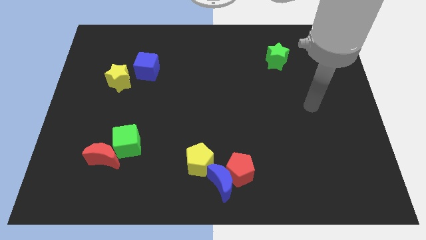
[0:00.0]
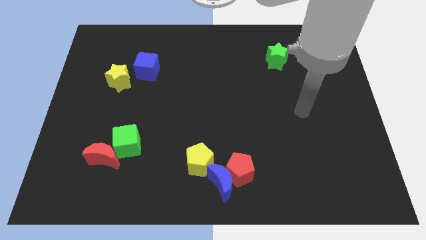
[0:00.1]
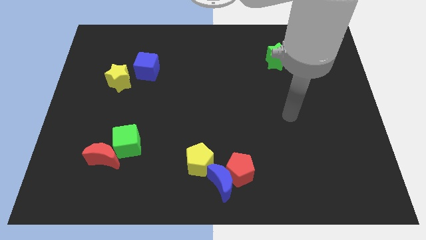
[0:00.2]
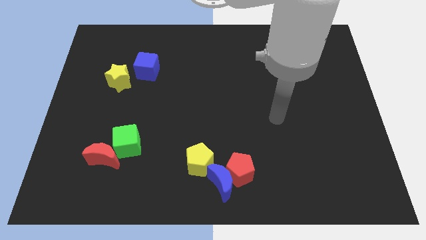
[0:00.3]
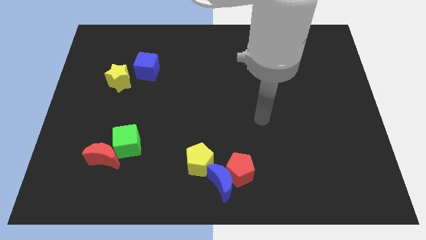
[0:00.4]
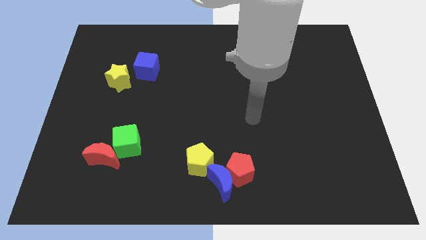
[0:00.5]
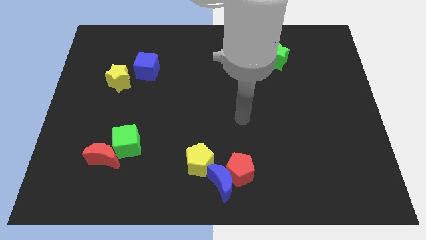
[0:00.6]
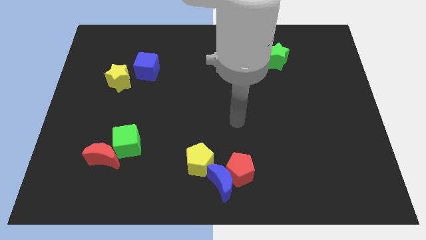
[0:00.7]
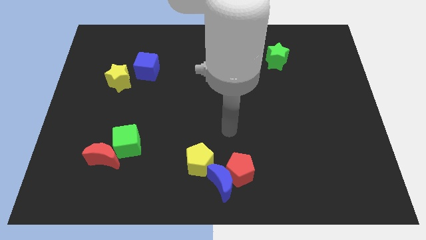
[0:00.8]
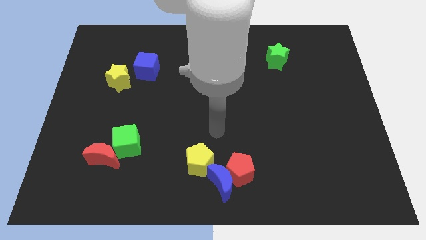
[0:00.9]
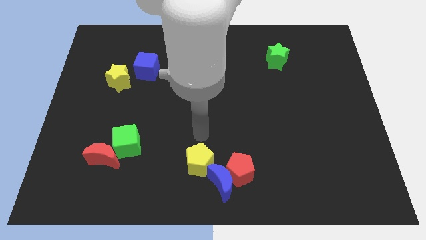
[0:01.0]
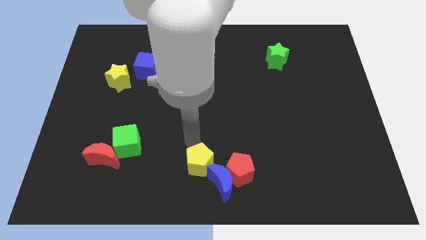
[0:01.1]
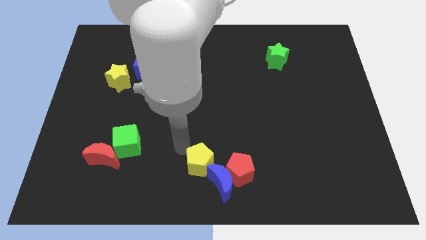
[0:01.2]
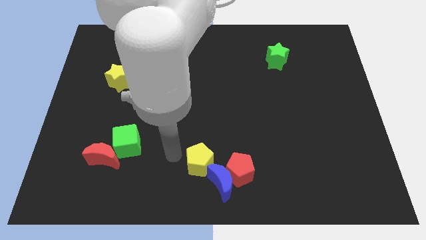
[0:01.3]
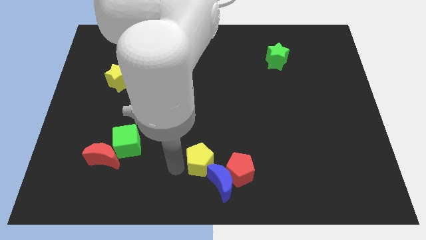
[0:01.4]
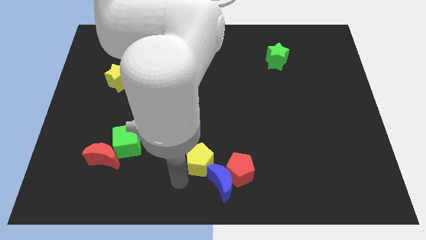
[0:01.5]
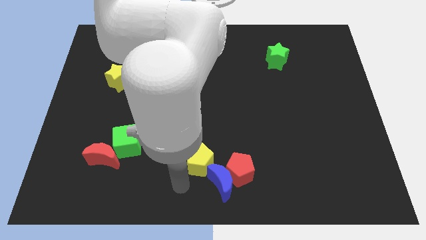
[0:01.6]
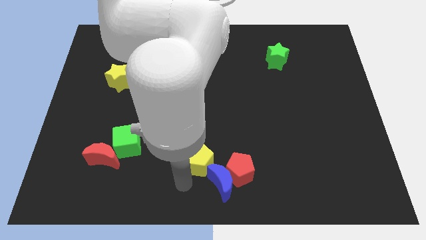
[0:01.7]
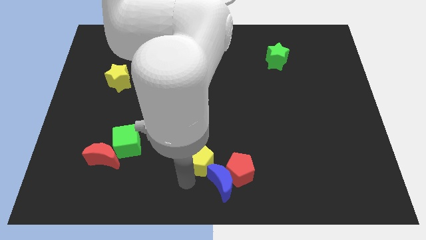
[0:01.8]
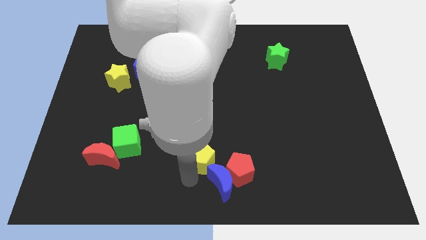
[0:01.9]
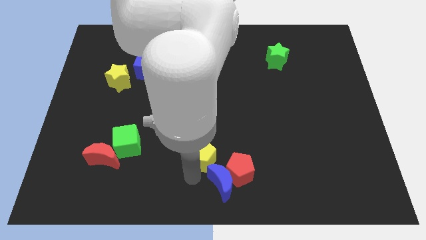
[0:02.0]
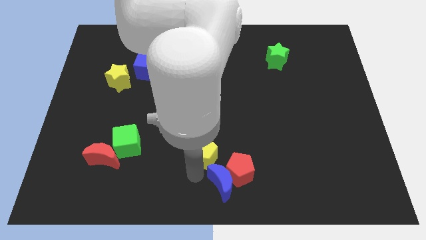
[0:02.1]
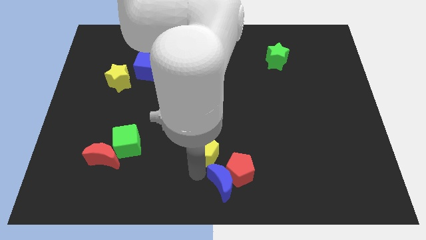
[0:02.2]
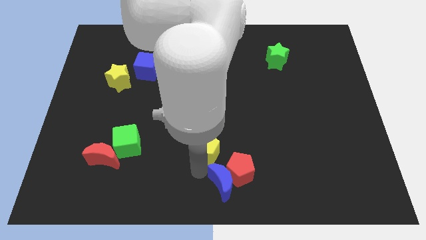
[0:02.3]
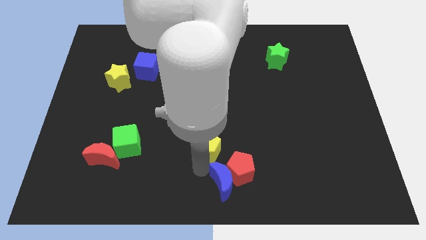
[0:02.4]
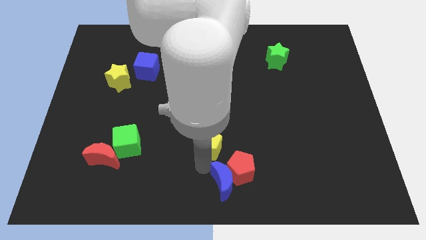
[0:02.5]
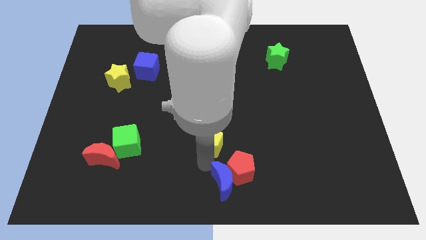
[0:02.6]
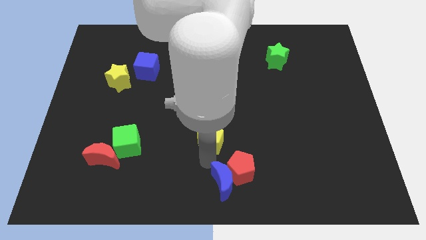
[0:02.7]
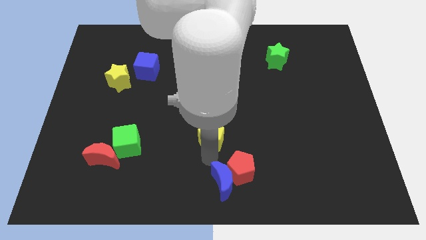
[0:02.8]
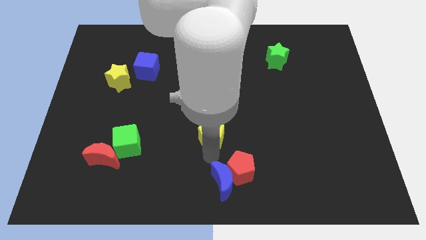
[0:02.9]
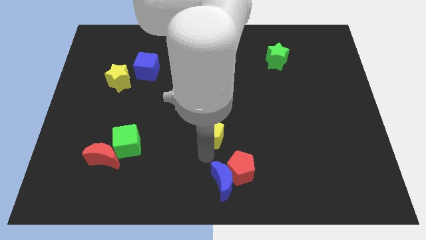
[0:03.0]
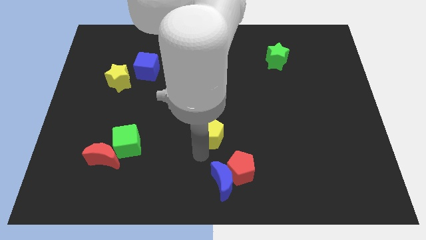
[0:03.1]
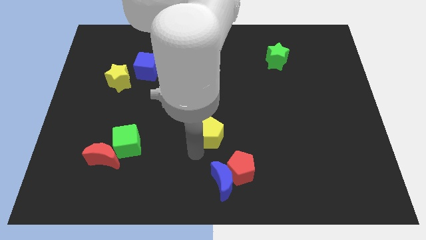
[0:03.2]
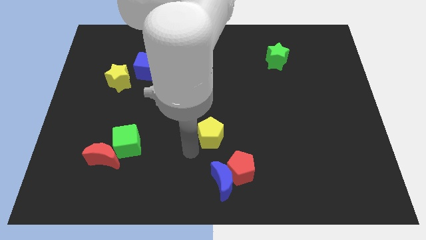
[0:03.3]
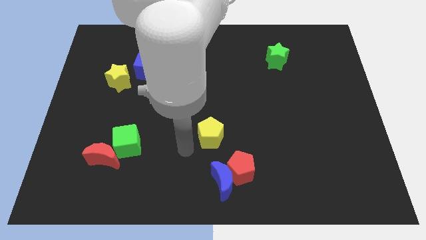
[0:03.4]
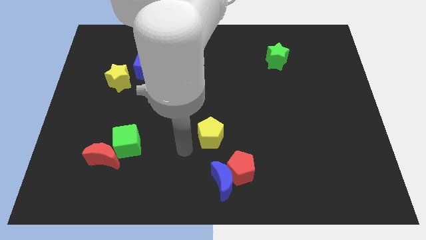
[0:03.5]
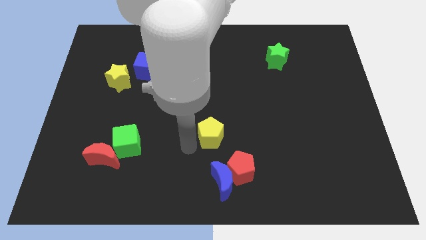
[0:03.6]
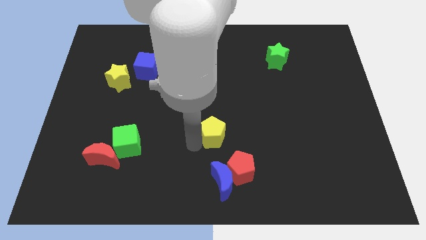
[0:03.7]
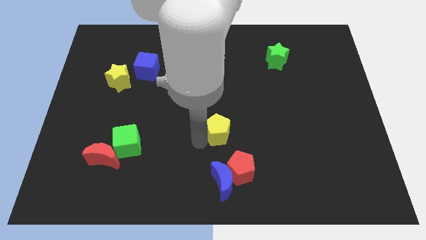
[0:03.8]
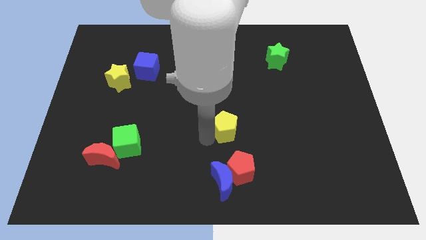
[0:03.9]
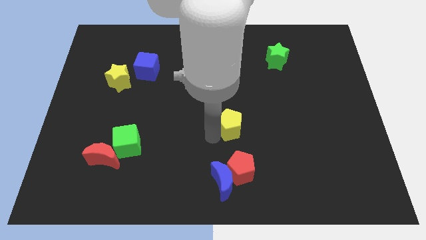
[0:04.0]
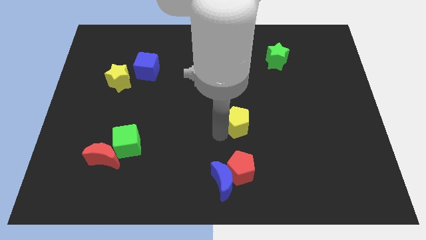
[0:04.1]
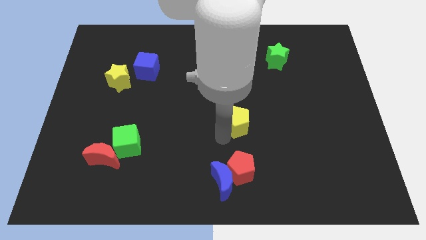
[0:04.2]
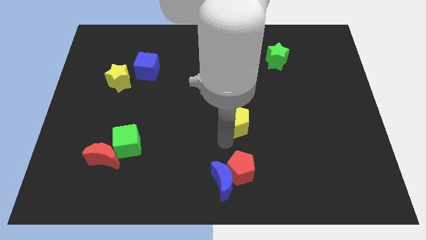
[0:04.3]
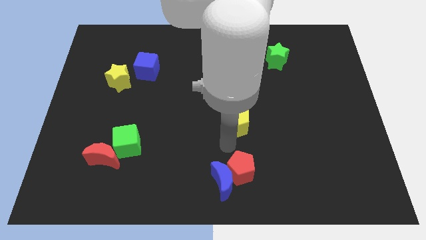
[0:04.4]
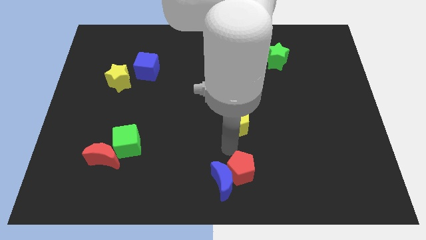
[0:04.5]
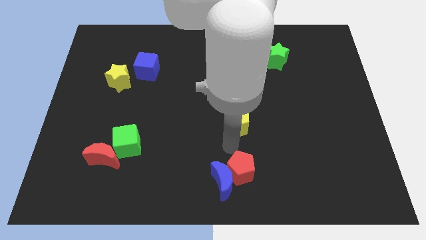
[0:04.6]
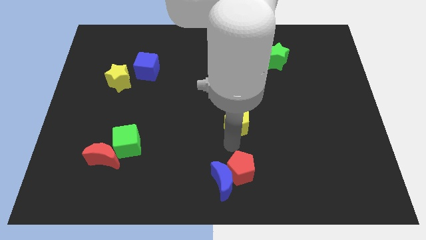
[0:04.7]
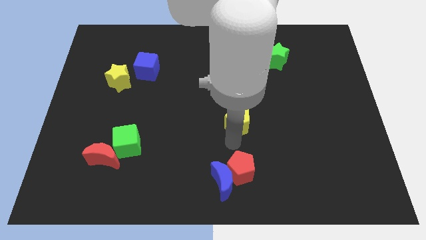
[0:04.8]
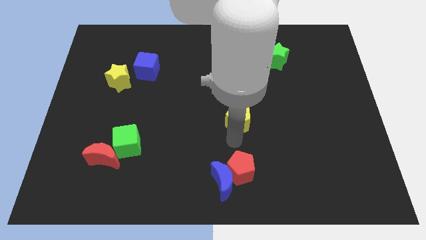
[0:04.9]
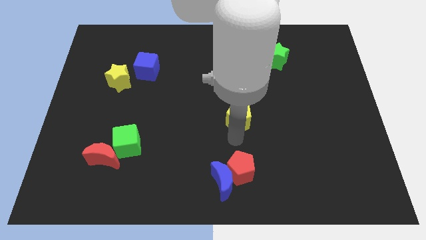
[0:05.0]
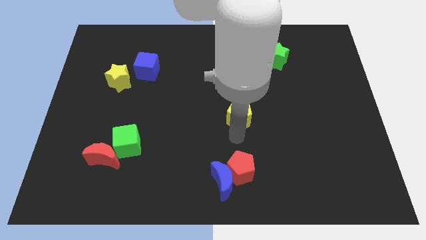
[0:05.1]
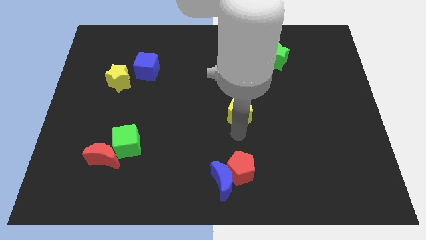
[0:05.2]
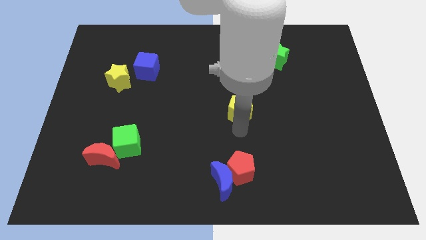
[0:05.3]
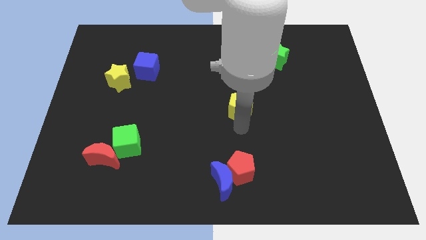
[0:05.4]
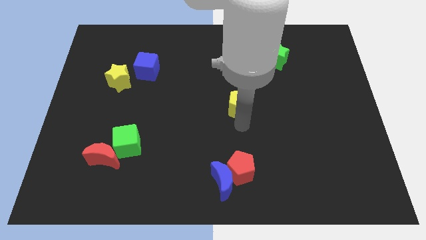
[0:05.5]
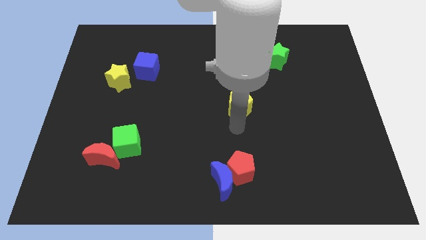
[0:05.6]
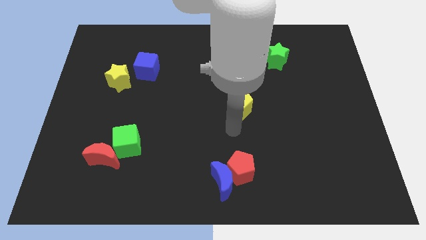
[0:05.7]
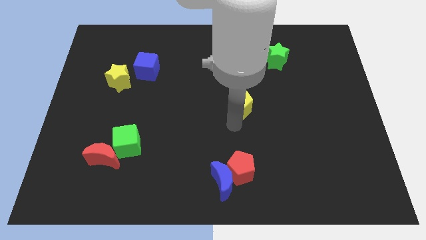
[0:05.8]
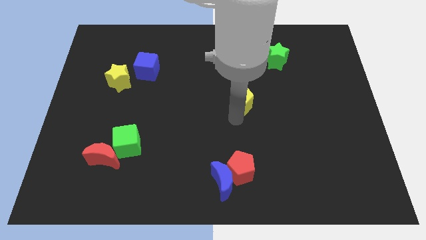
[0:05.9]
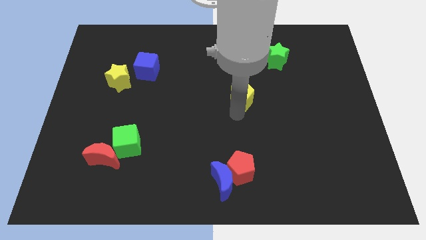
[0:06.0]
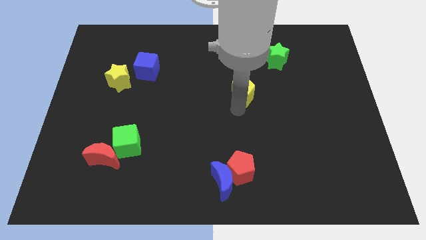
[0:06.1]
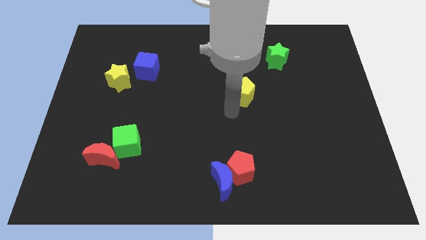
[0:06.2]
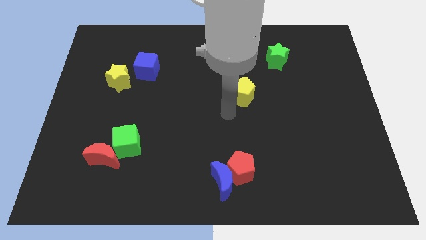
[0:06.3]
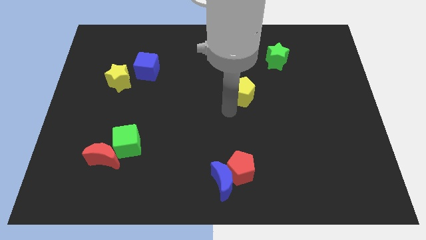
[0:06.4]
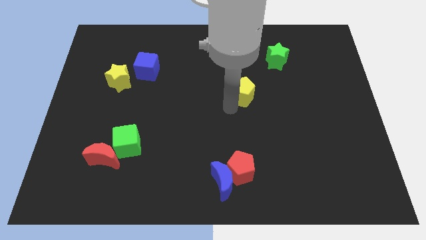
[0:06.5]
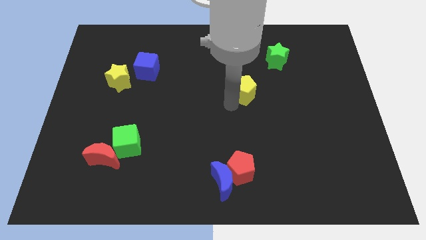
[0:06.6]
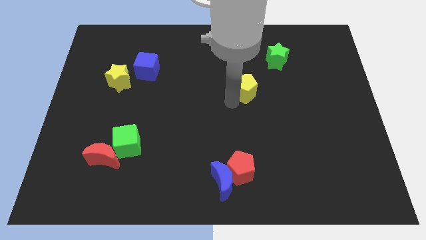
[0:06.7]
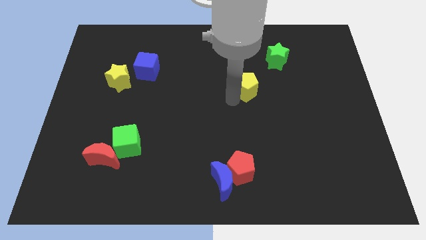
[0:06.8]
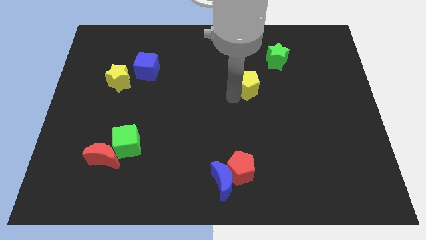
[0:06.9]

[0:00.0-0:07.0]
put the yellow pentagon to the bottom left side of the green star

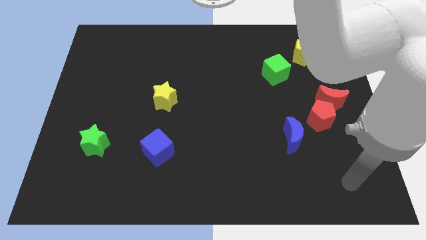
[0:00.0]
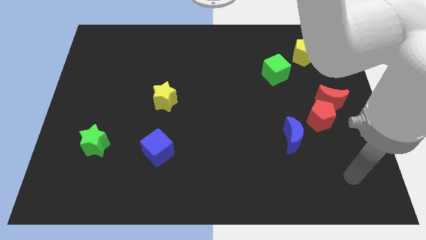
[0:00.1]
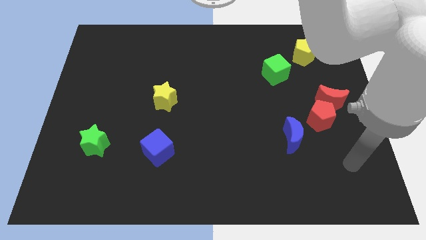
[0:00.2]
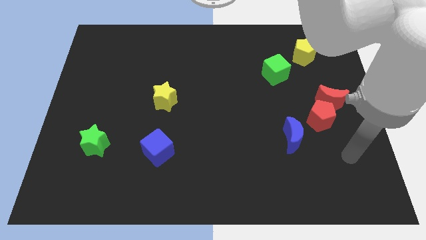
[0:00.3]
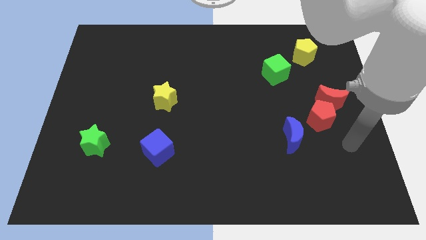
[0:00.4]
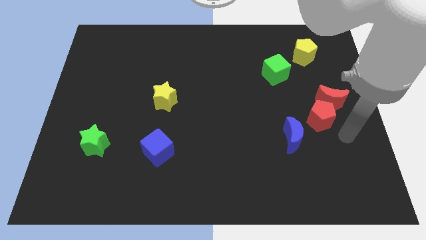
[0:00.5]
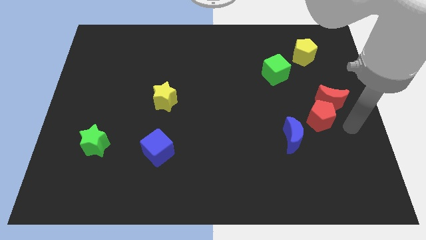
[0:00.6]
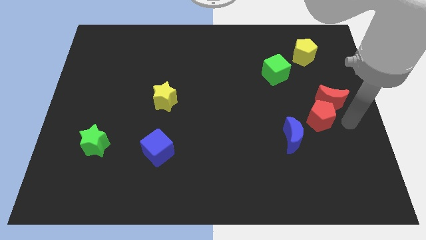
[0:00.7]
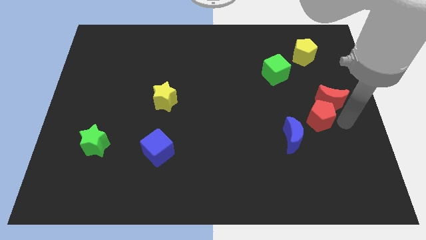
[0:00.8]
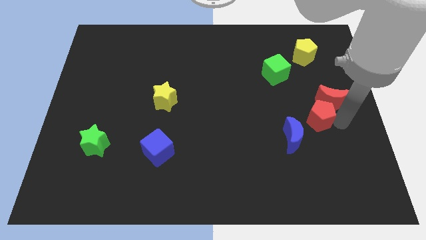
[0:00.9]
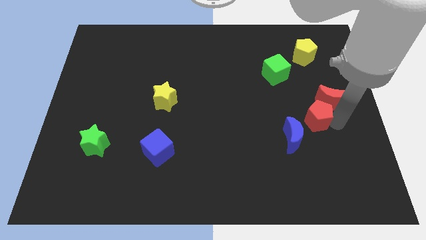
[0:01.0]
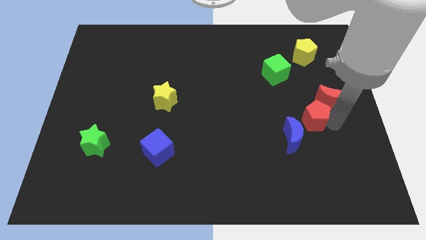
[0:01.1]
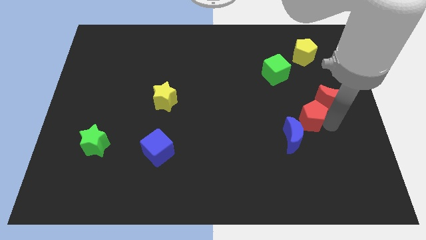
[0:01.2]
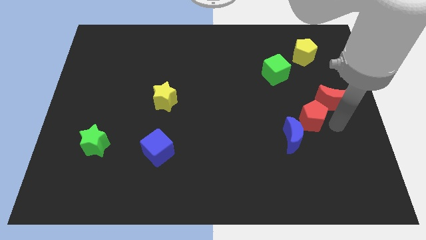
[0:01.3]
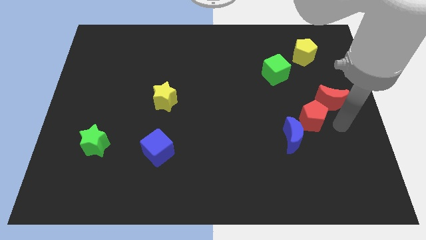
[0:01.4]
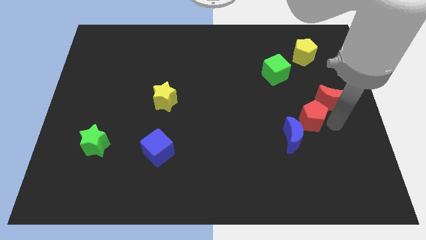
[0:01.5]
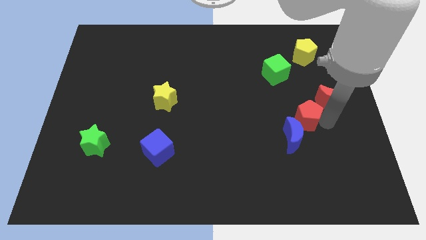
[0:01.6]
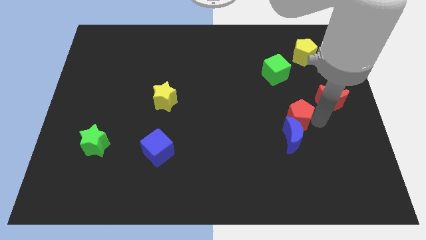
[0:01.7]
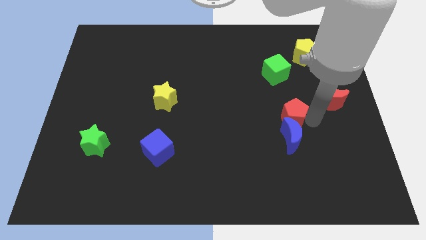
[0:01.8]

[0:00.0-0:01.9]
push the red pentagon to the top left of the blue moon
